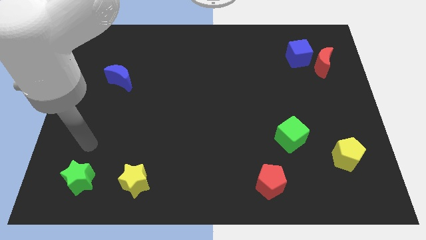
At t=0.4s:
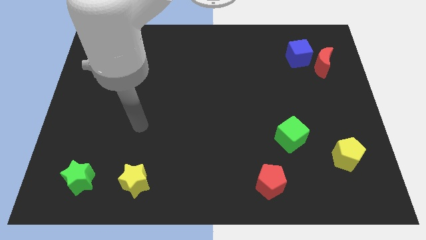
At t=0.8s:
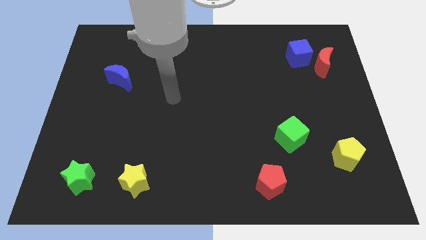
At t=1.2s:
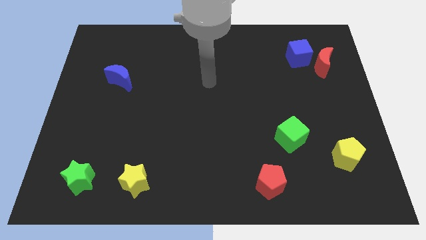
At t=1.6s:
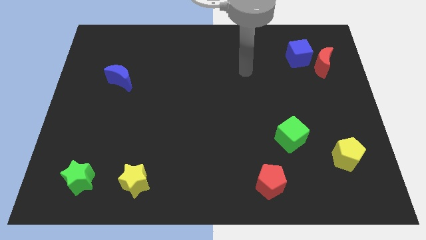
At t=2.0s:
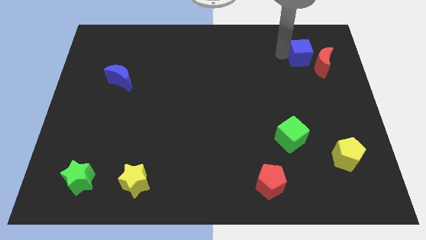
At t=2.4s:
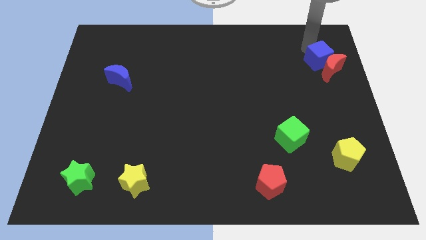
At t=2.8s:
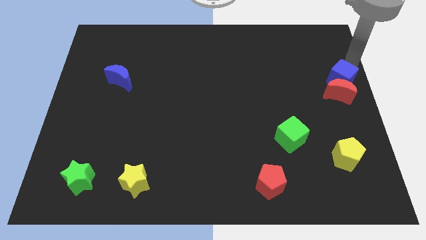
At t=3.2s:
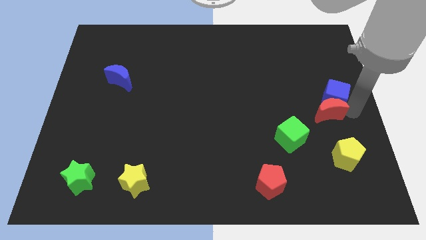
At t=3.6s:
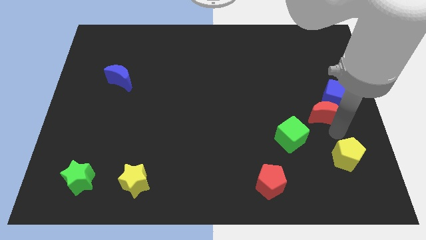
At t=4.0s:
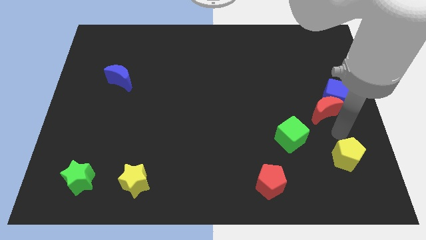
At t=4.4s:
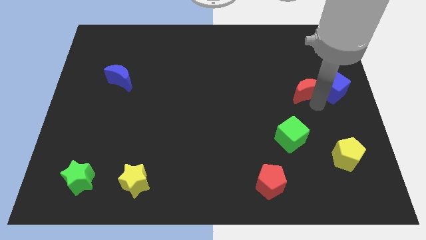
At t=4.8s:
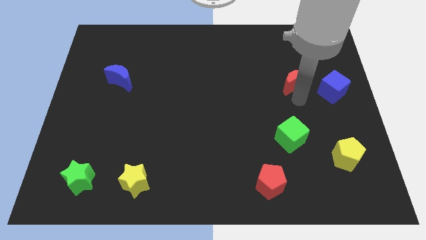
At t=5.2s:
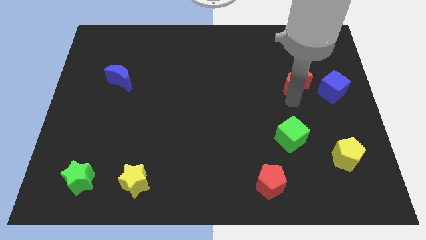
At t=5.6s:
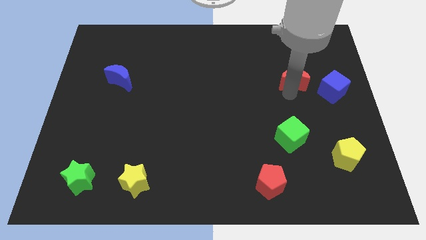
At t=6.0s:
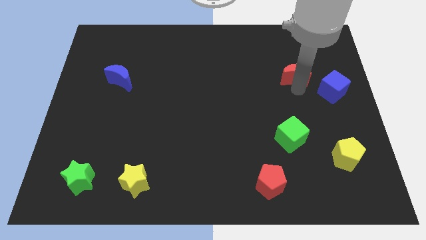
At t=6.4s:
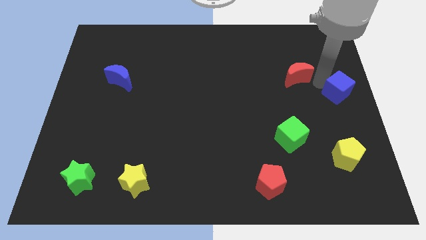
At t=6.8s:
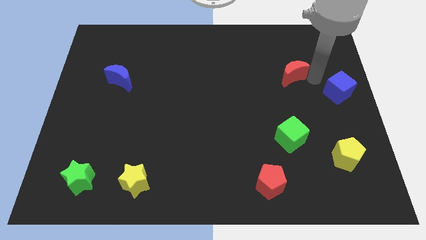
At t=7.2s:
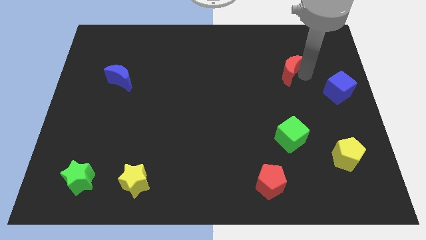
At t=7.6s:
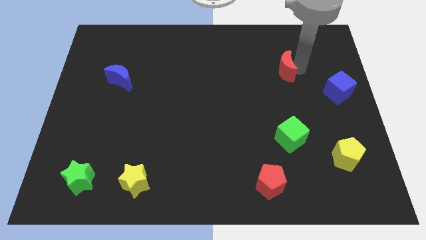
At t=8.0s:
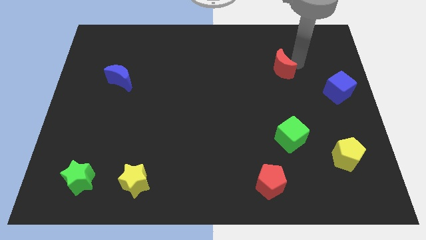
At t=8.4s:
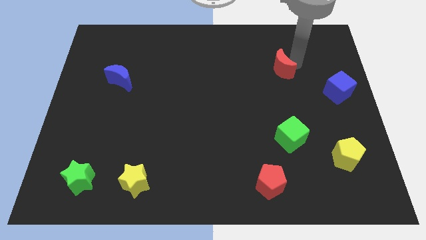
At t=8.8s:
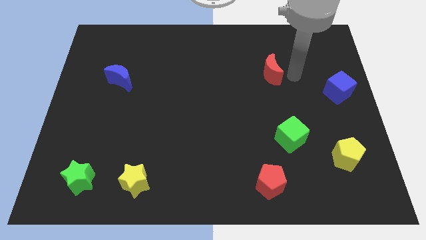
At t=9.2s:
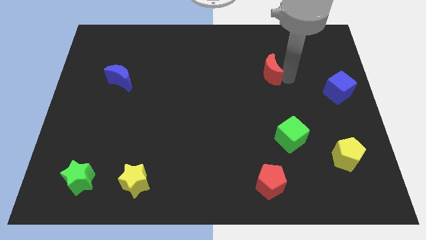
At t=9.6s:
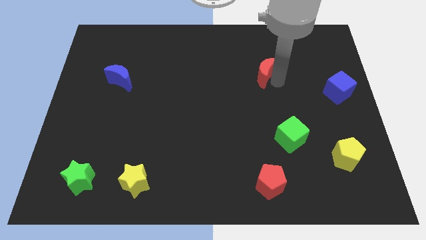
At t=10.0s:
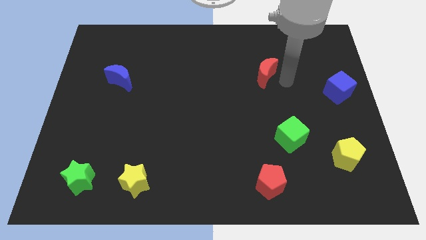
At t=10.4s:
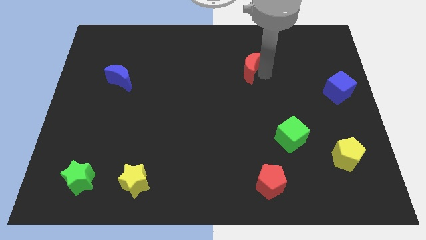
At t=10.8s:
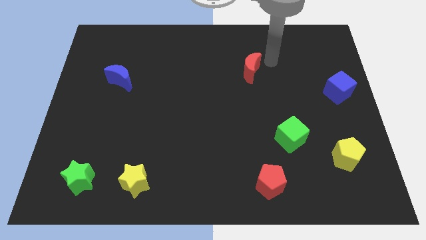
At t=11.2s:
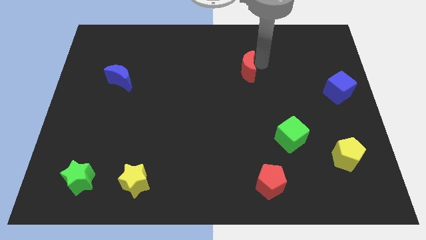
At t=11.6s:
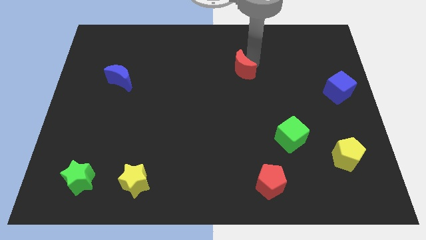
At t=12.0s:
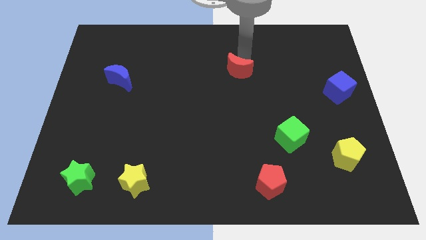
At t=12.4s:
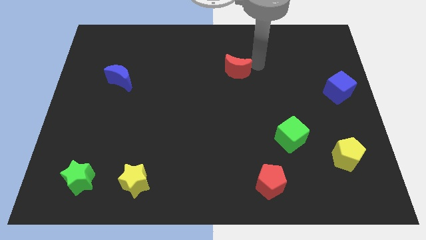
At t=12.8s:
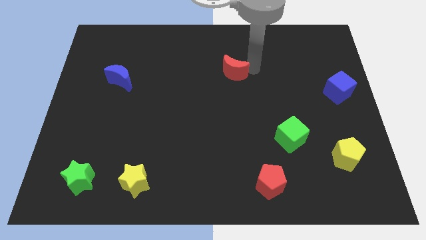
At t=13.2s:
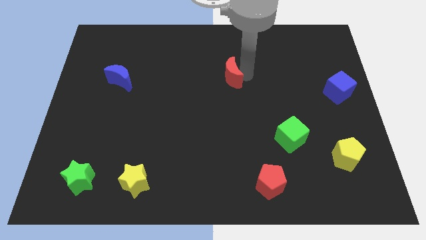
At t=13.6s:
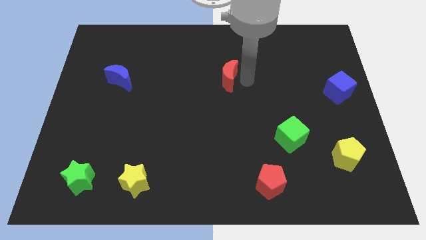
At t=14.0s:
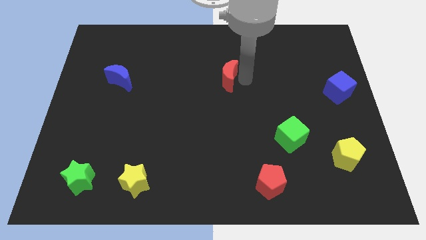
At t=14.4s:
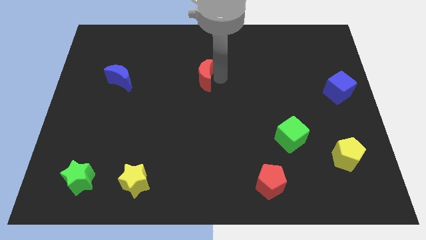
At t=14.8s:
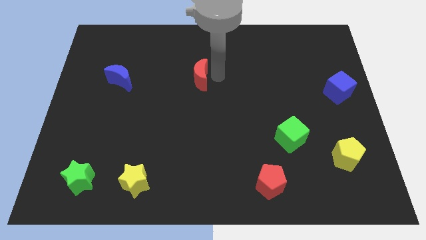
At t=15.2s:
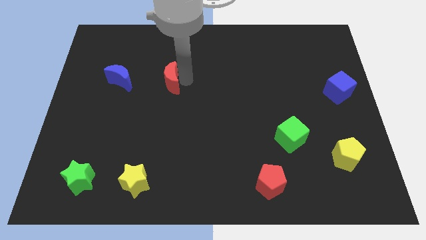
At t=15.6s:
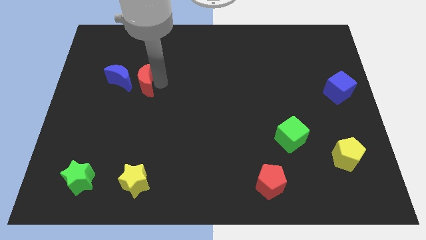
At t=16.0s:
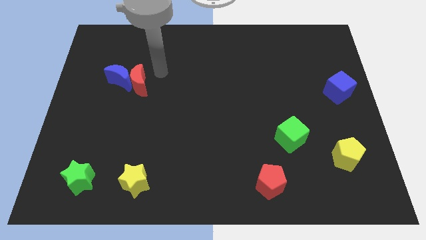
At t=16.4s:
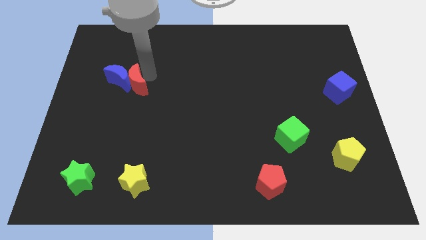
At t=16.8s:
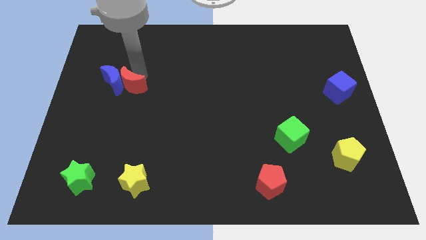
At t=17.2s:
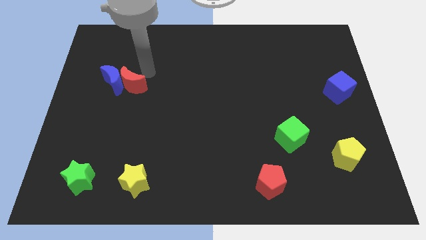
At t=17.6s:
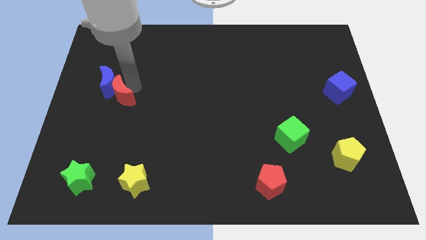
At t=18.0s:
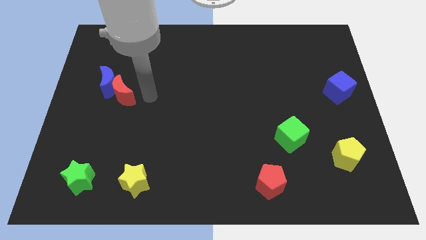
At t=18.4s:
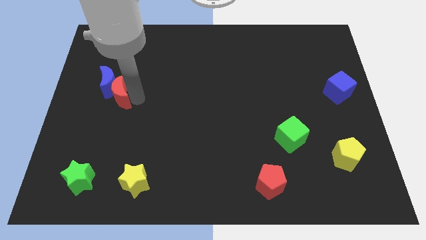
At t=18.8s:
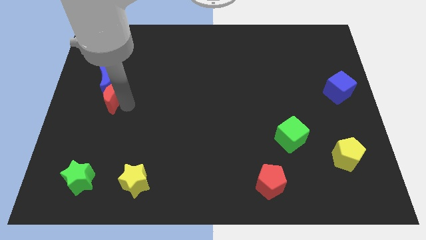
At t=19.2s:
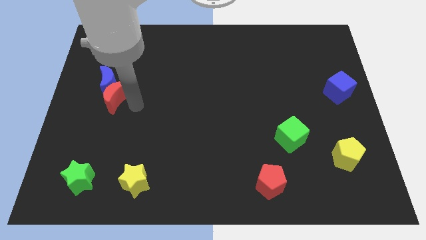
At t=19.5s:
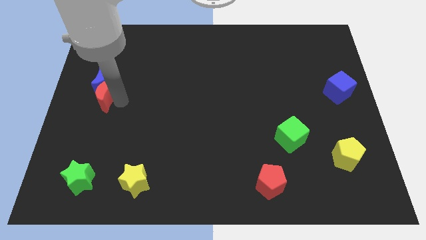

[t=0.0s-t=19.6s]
slide the red moon to the center left

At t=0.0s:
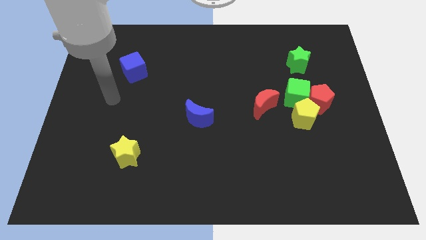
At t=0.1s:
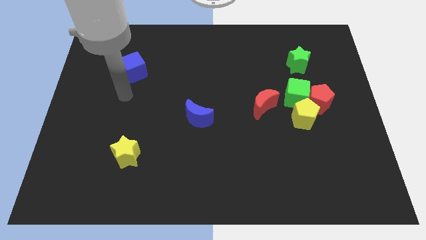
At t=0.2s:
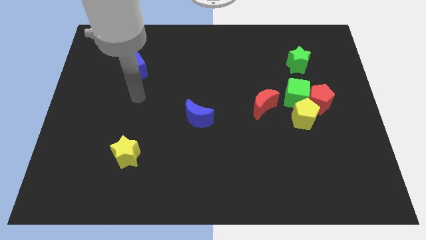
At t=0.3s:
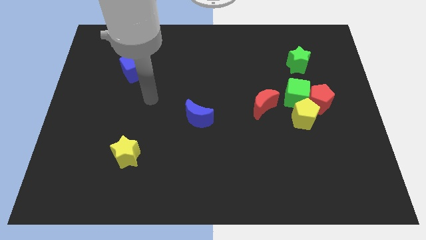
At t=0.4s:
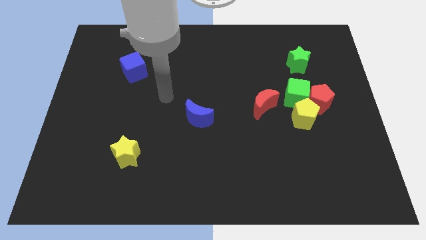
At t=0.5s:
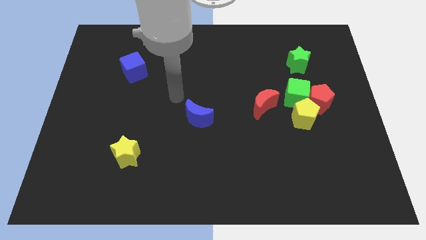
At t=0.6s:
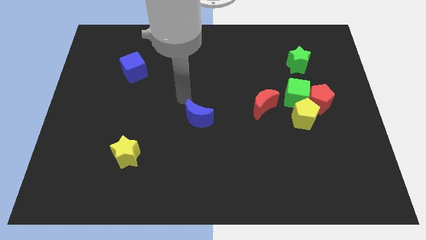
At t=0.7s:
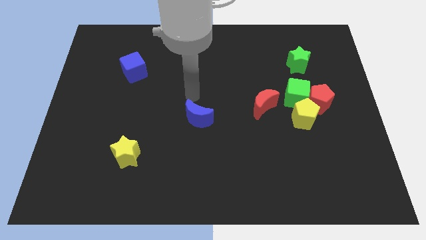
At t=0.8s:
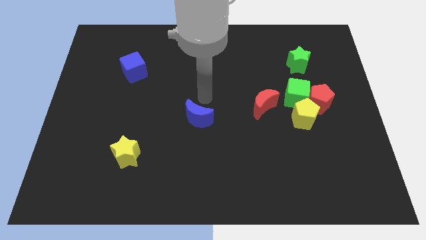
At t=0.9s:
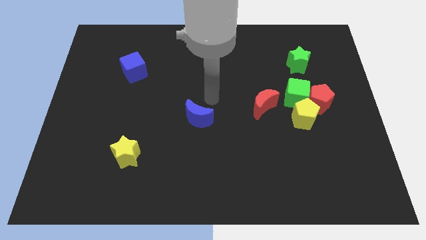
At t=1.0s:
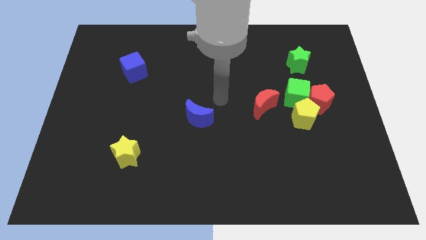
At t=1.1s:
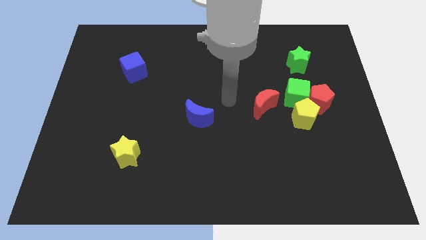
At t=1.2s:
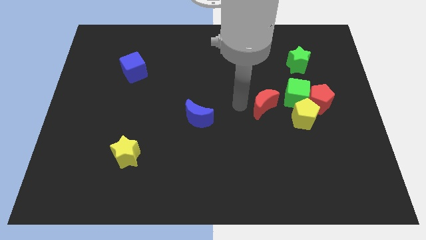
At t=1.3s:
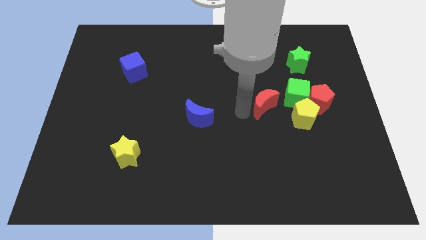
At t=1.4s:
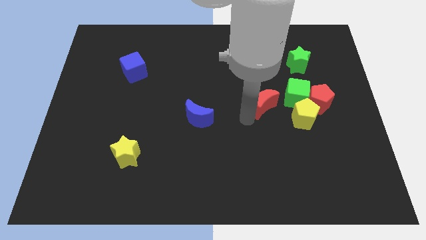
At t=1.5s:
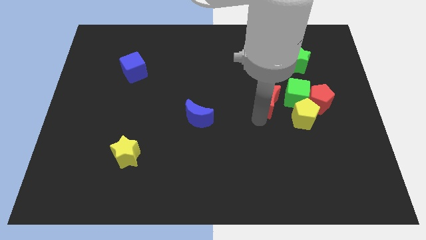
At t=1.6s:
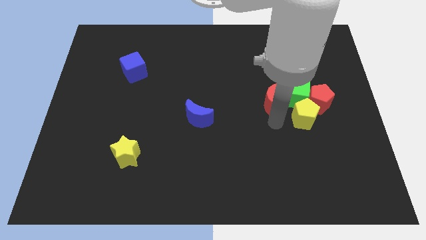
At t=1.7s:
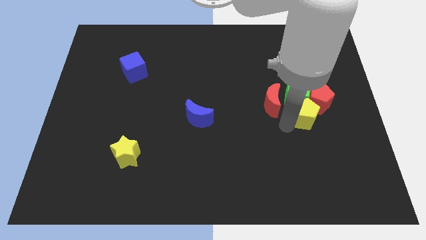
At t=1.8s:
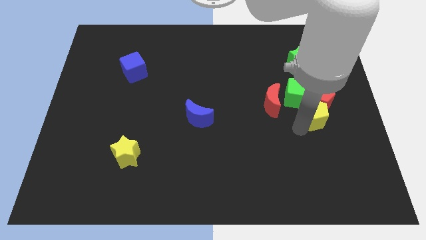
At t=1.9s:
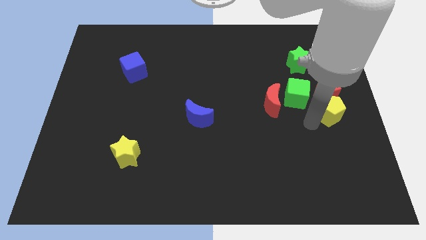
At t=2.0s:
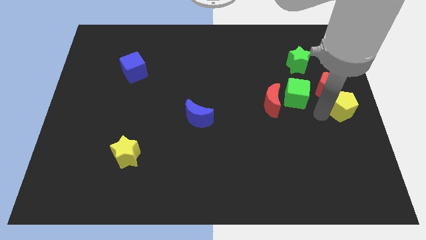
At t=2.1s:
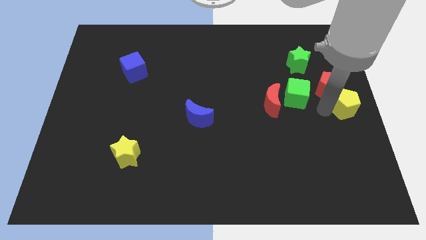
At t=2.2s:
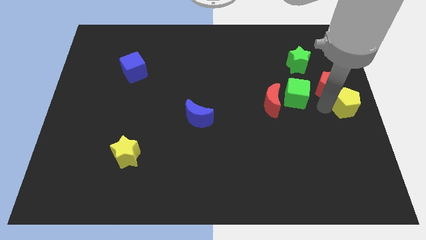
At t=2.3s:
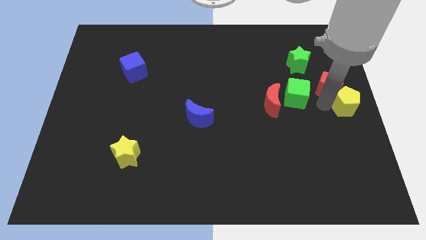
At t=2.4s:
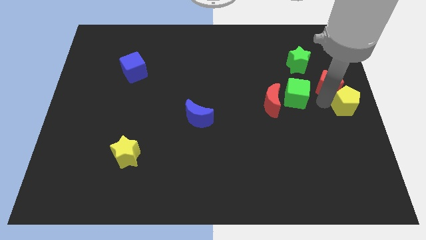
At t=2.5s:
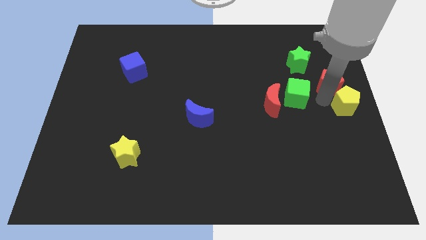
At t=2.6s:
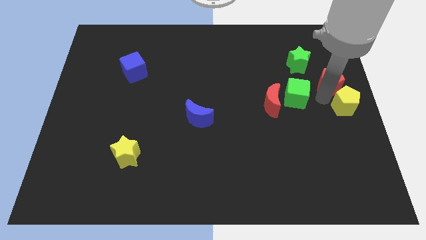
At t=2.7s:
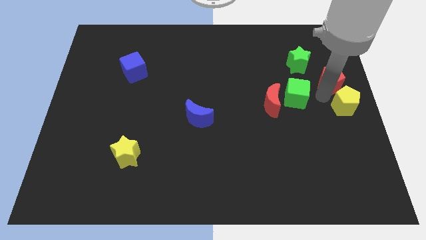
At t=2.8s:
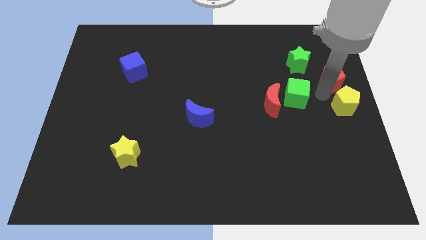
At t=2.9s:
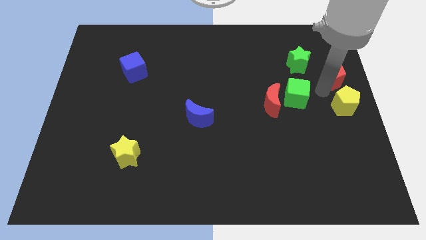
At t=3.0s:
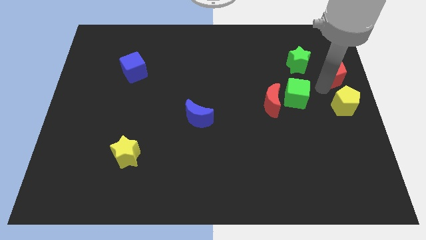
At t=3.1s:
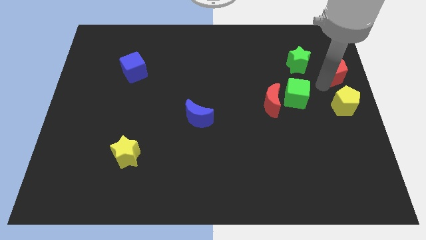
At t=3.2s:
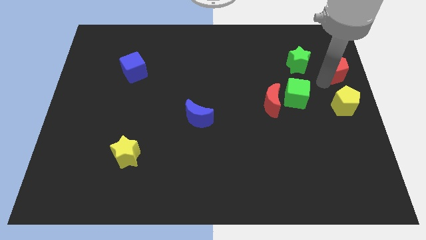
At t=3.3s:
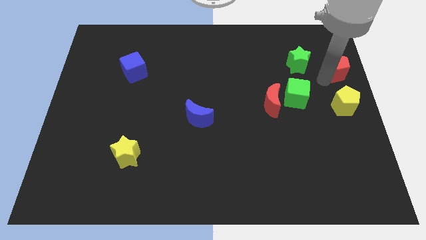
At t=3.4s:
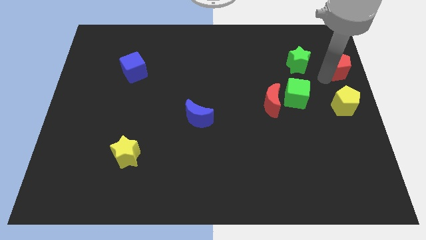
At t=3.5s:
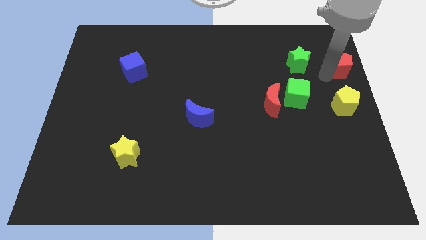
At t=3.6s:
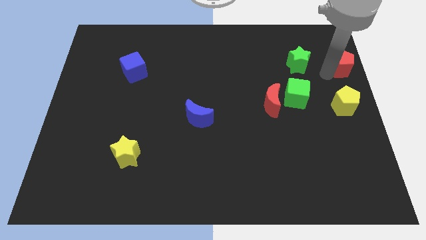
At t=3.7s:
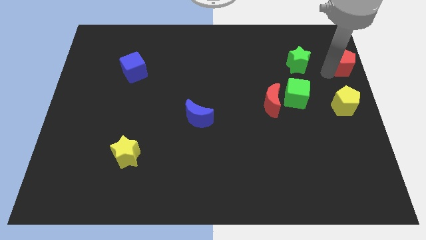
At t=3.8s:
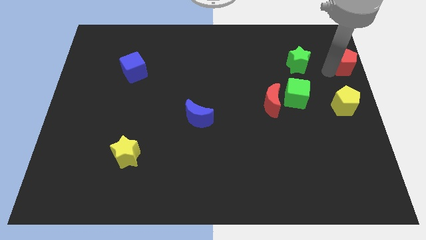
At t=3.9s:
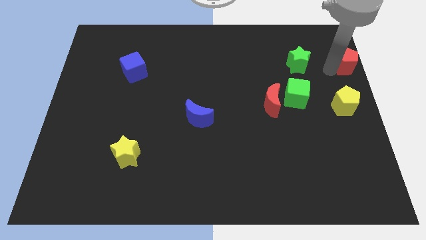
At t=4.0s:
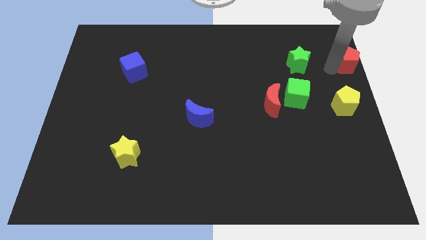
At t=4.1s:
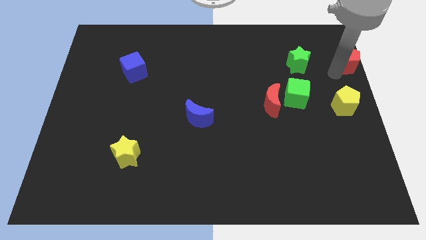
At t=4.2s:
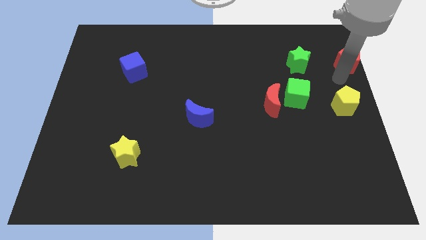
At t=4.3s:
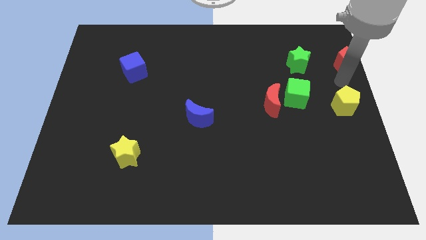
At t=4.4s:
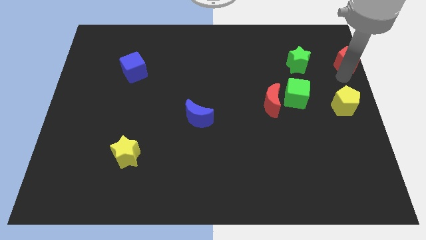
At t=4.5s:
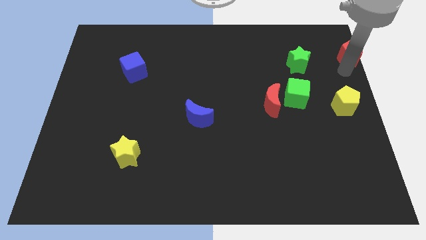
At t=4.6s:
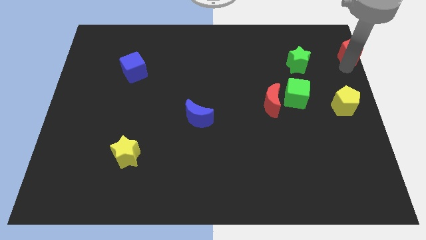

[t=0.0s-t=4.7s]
move the red pentagon to the top right of the board
